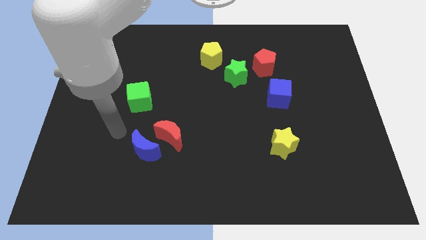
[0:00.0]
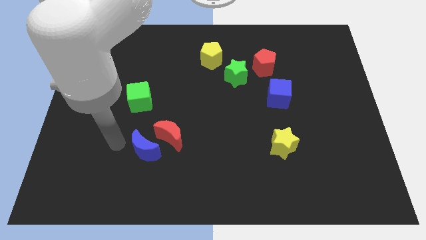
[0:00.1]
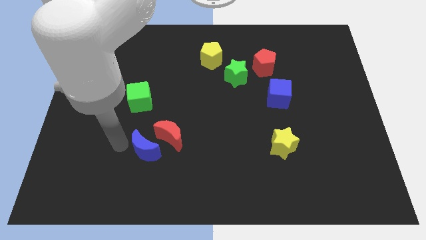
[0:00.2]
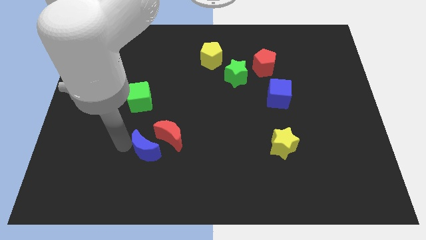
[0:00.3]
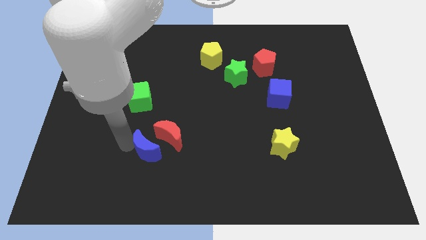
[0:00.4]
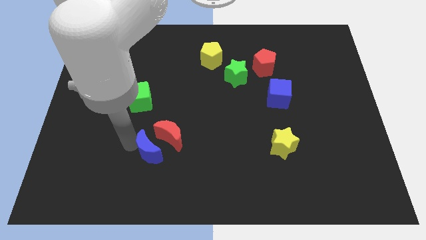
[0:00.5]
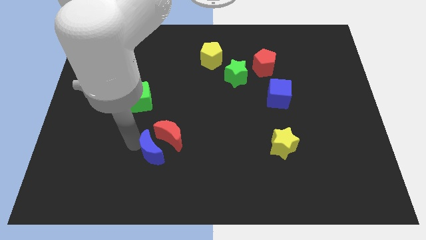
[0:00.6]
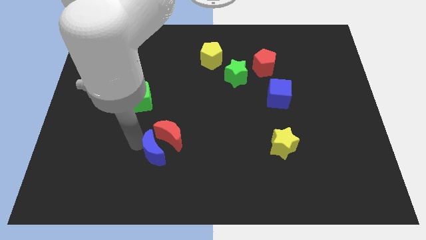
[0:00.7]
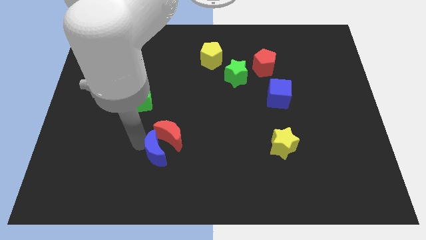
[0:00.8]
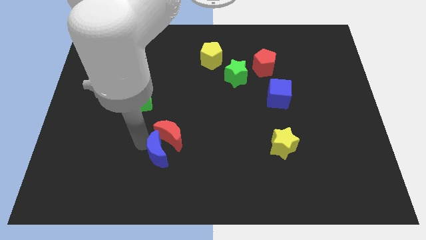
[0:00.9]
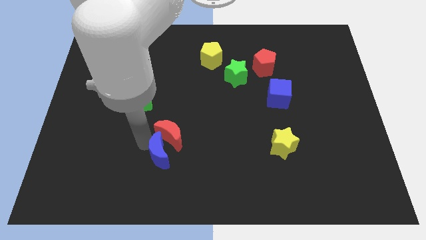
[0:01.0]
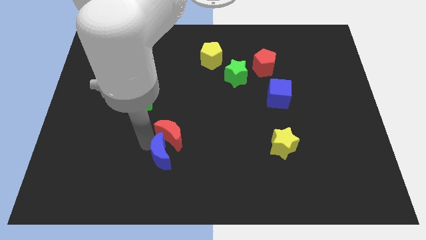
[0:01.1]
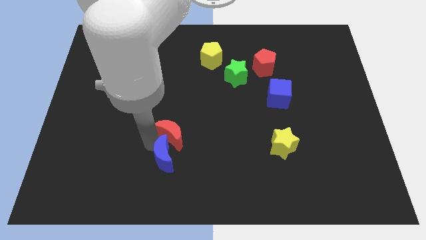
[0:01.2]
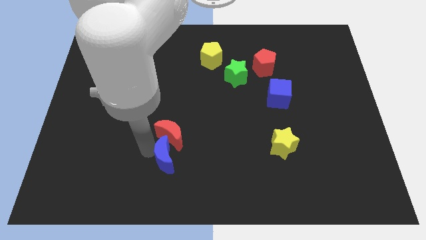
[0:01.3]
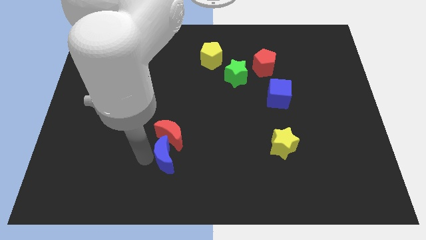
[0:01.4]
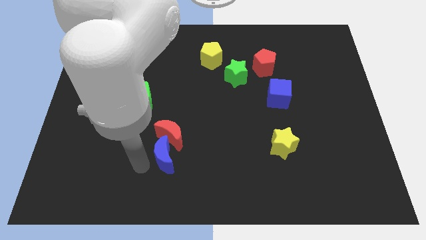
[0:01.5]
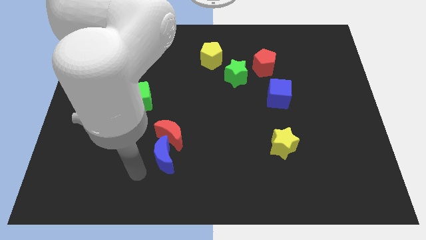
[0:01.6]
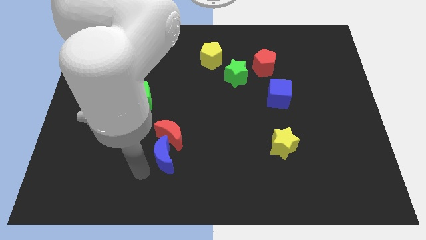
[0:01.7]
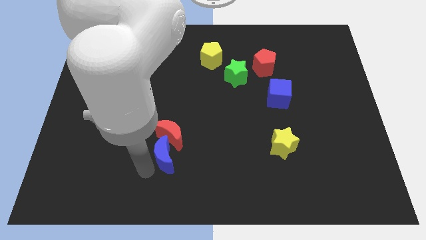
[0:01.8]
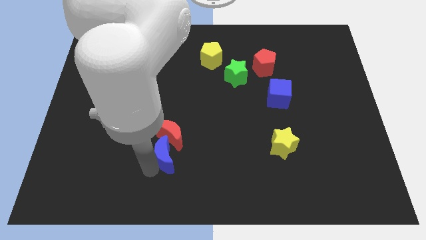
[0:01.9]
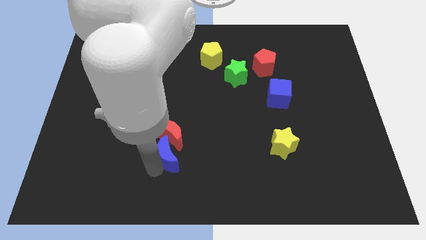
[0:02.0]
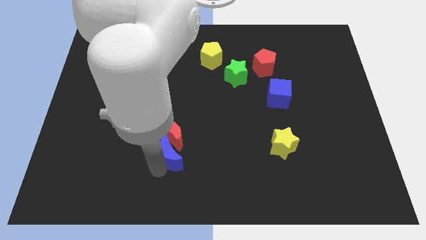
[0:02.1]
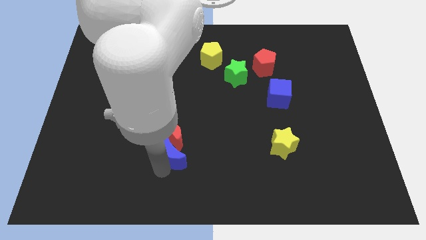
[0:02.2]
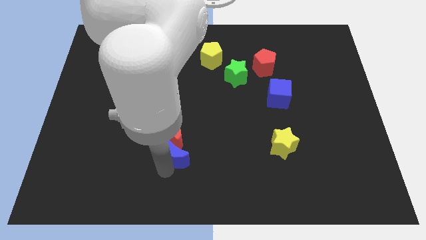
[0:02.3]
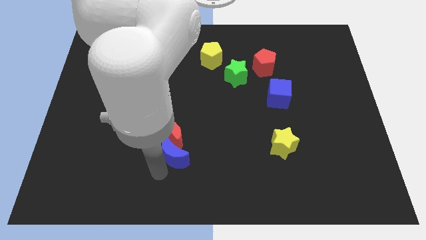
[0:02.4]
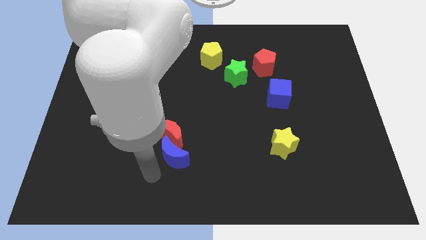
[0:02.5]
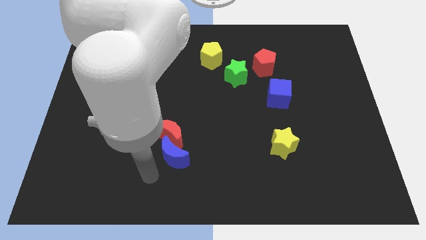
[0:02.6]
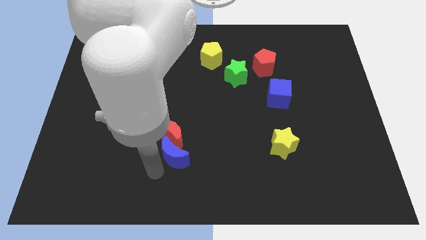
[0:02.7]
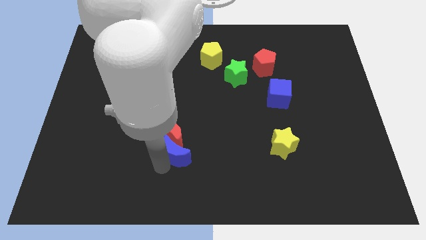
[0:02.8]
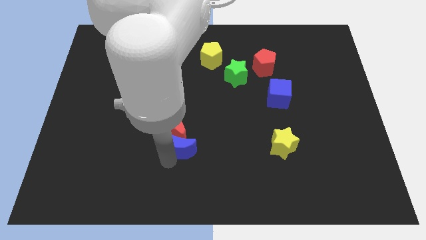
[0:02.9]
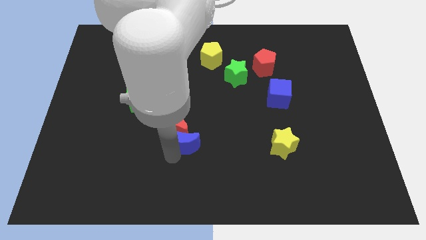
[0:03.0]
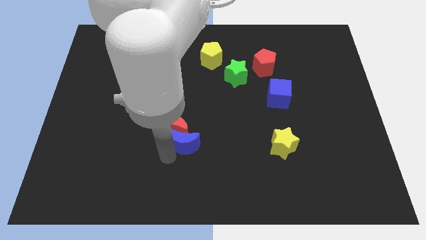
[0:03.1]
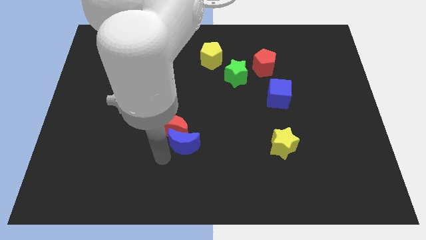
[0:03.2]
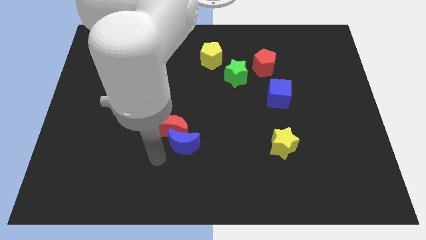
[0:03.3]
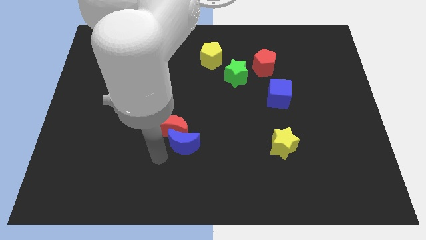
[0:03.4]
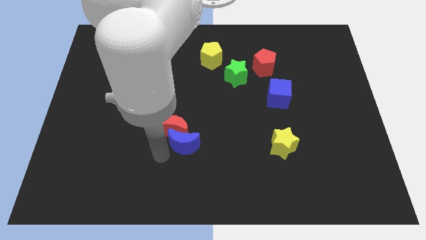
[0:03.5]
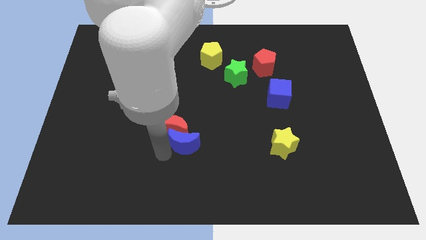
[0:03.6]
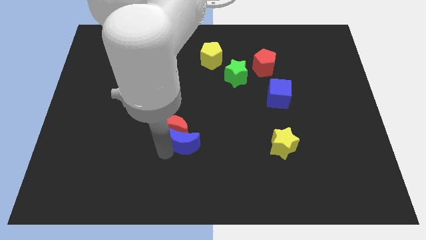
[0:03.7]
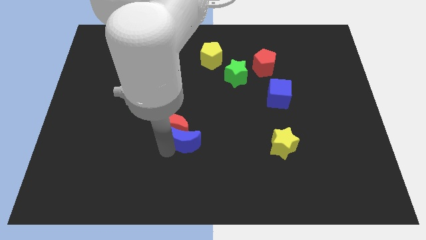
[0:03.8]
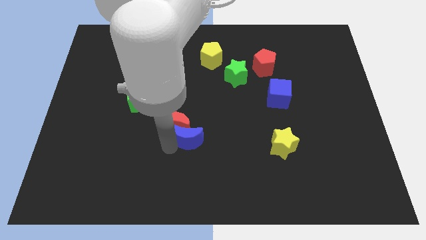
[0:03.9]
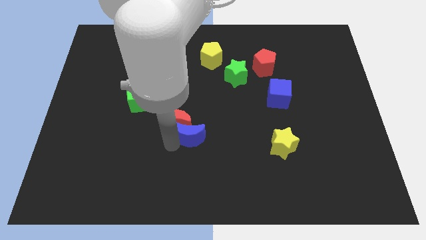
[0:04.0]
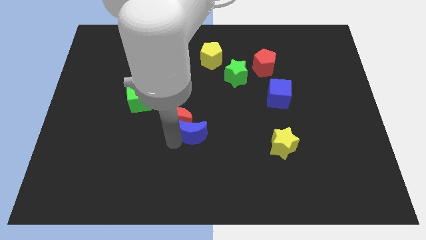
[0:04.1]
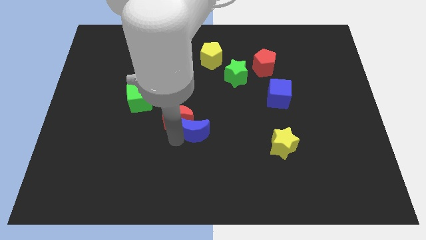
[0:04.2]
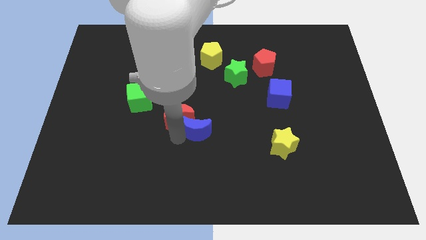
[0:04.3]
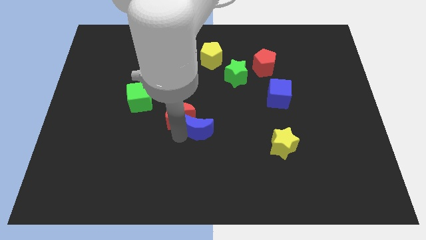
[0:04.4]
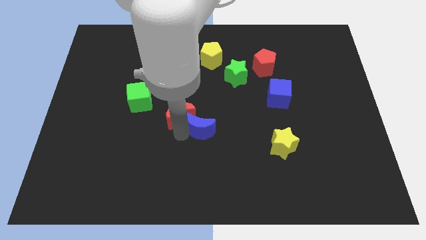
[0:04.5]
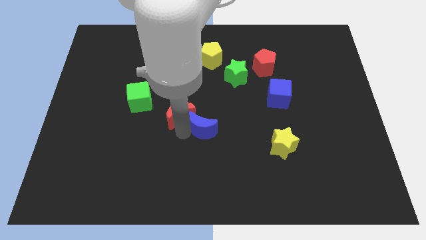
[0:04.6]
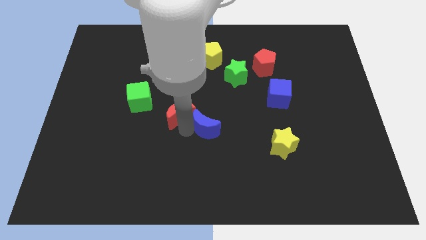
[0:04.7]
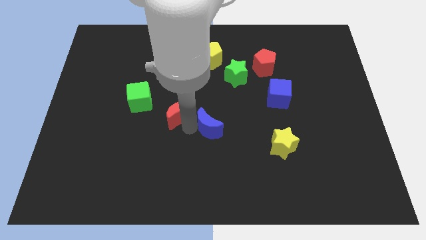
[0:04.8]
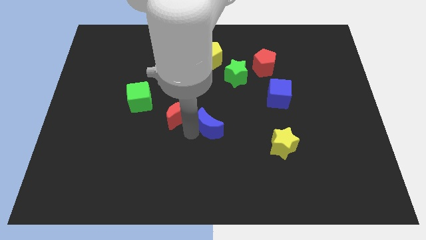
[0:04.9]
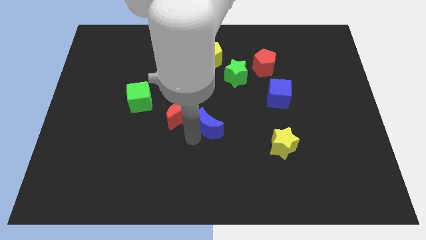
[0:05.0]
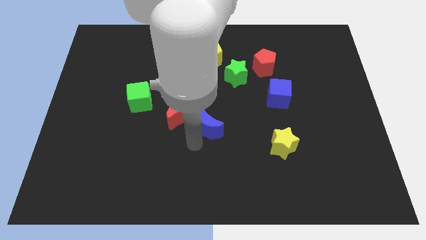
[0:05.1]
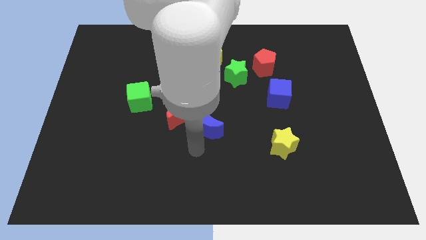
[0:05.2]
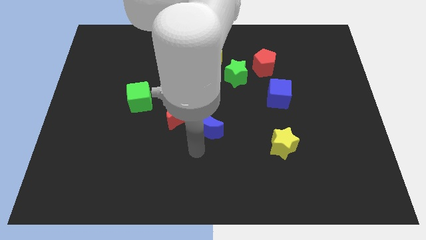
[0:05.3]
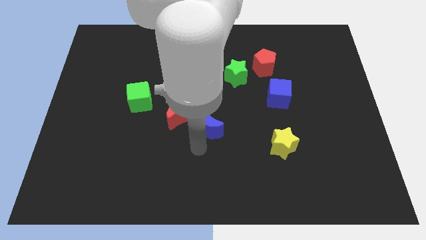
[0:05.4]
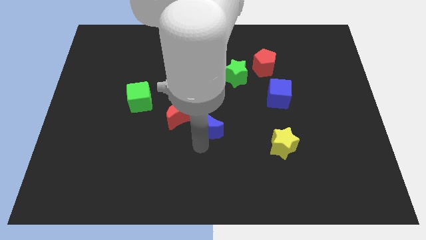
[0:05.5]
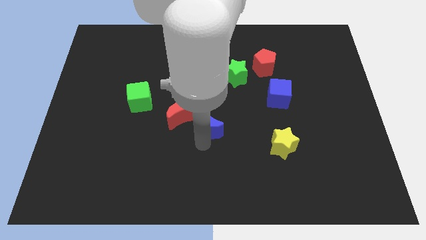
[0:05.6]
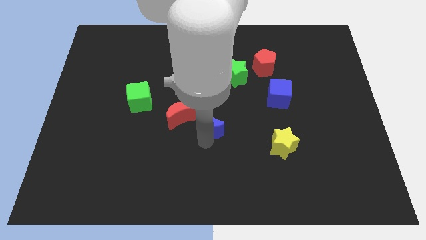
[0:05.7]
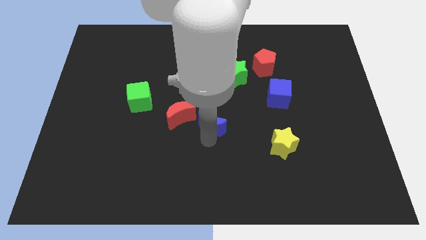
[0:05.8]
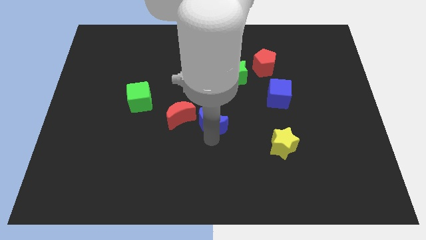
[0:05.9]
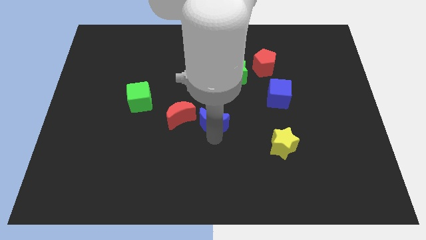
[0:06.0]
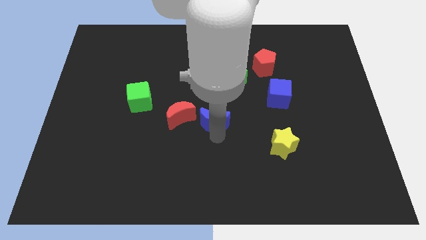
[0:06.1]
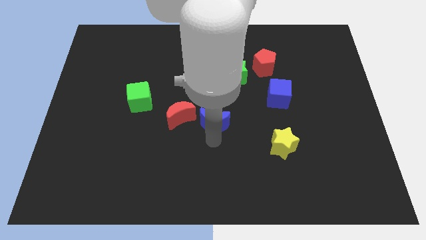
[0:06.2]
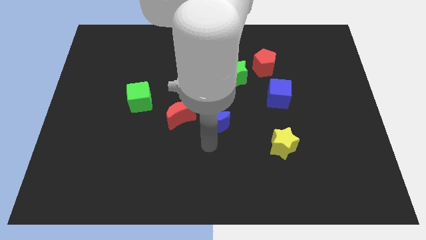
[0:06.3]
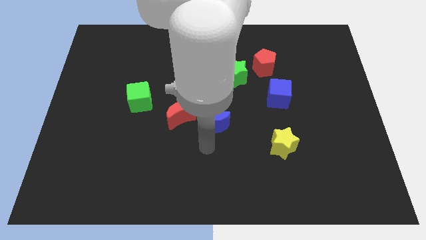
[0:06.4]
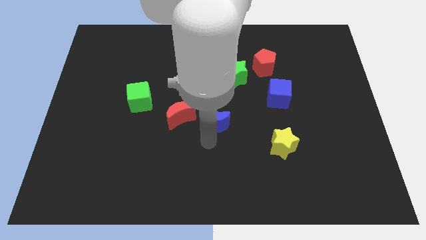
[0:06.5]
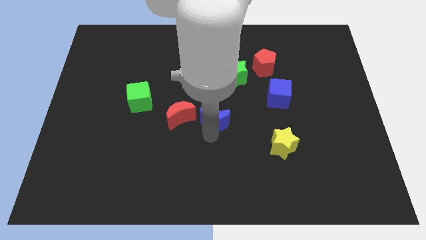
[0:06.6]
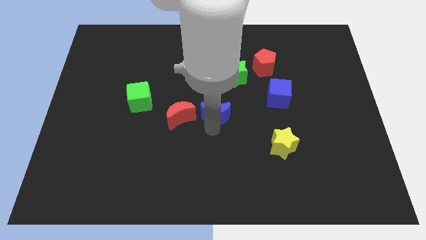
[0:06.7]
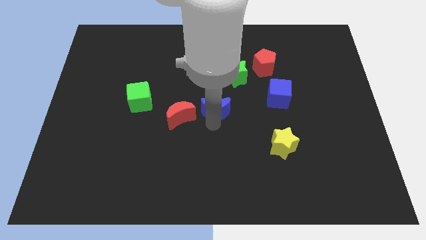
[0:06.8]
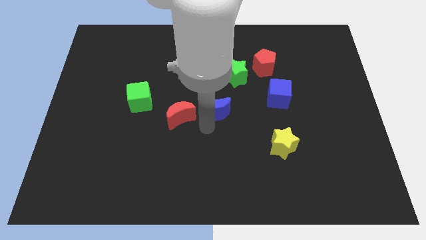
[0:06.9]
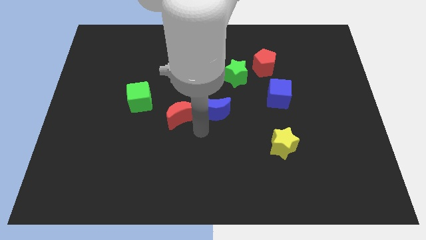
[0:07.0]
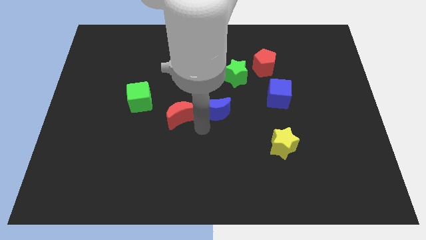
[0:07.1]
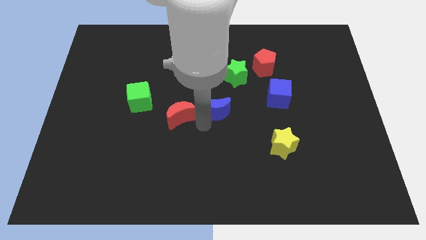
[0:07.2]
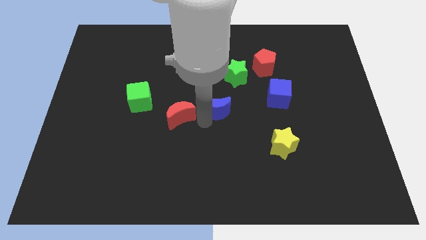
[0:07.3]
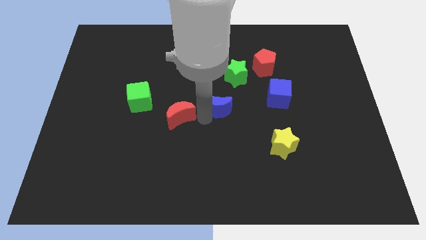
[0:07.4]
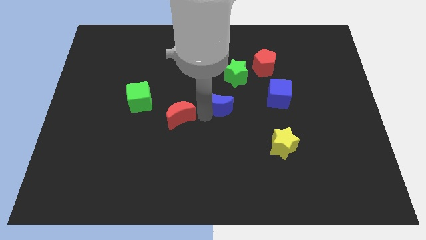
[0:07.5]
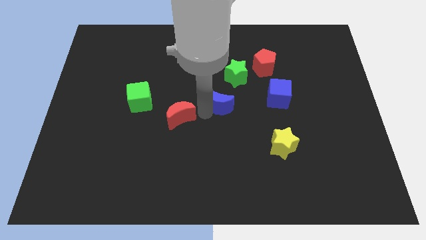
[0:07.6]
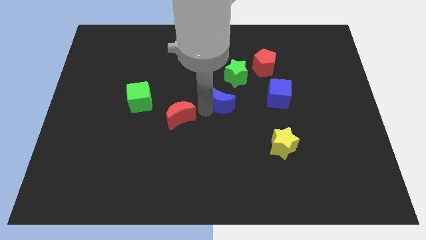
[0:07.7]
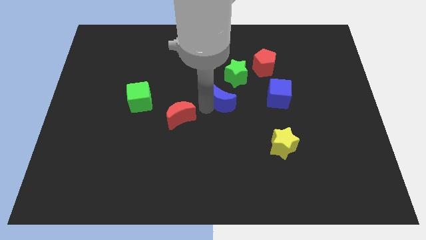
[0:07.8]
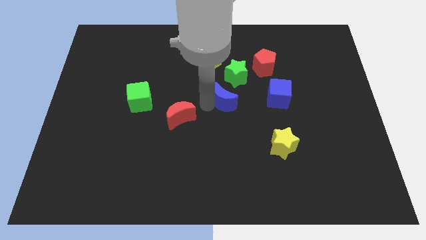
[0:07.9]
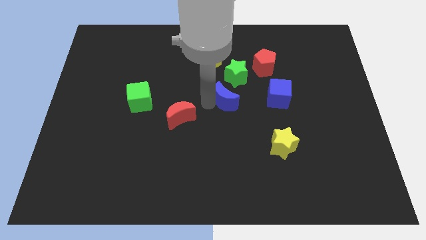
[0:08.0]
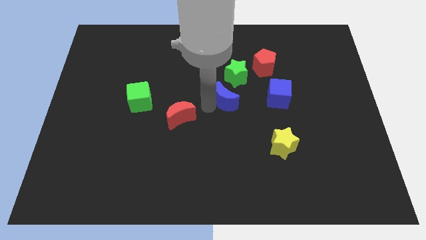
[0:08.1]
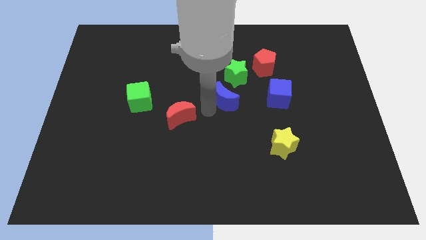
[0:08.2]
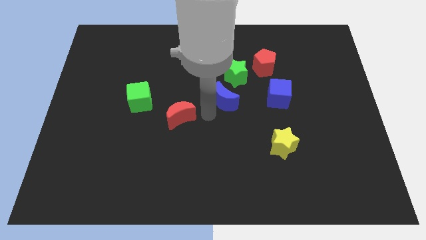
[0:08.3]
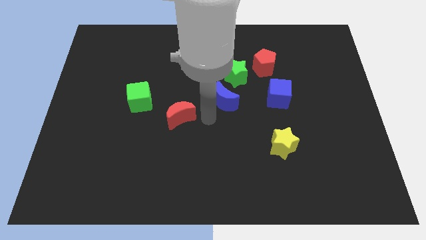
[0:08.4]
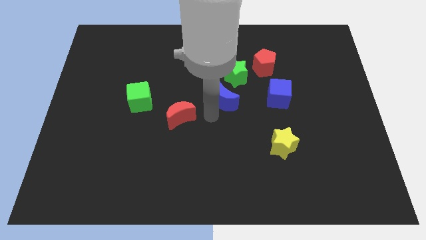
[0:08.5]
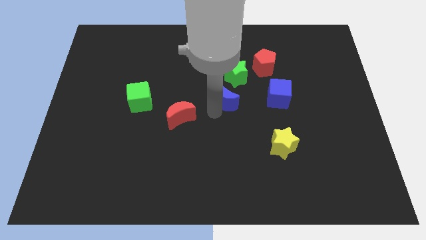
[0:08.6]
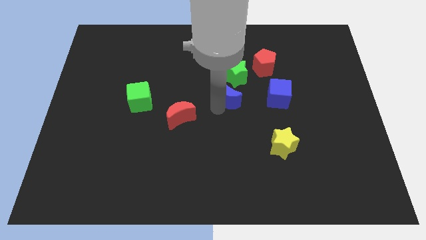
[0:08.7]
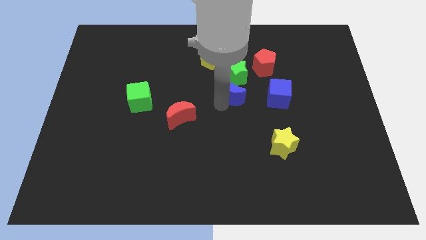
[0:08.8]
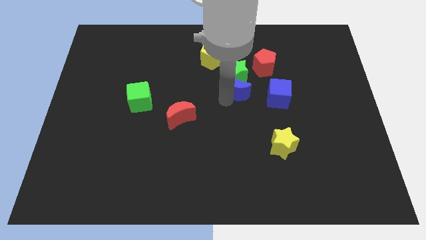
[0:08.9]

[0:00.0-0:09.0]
push the blue moon to the bottom left side of the red pentagon
